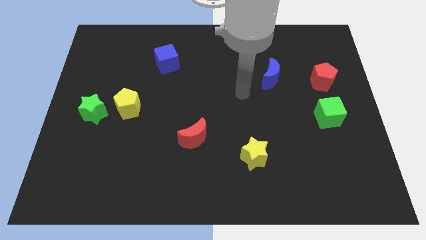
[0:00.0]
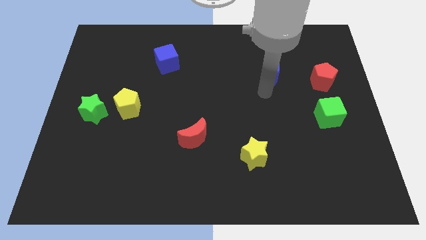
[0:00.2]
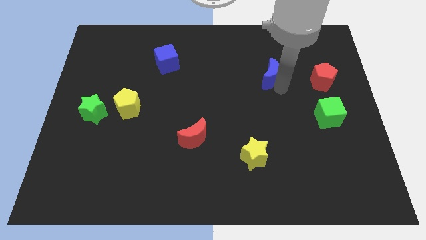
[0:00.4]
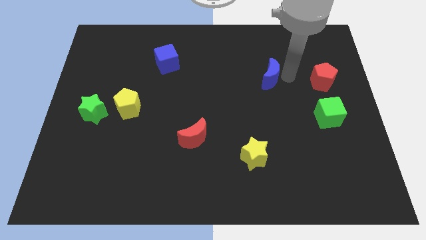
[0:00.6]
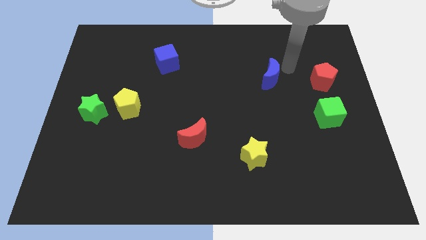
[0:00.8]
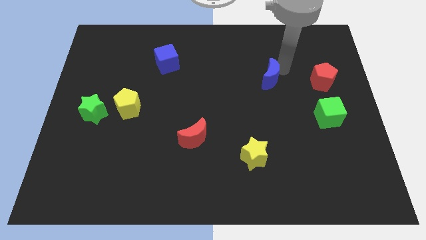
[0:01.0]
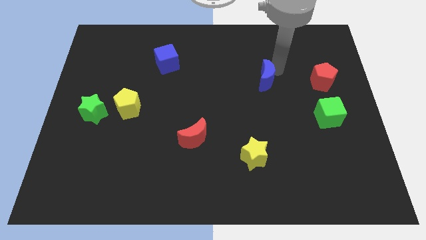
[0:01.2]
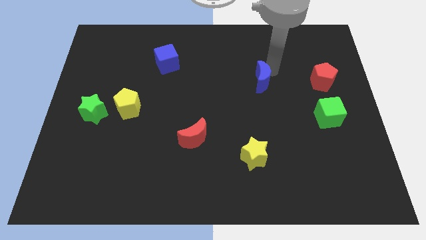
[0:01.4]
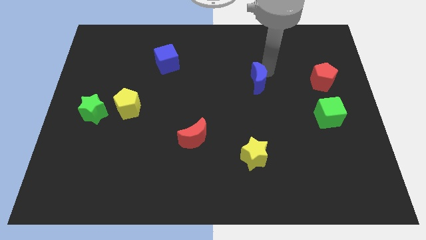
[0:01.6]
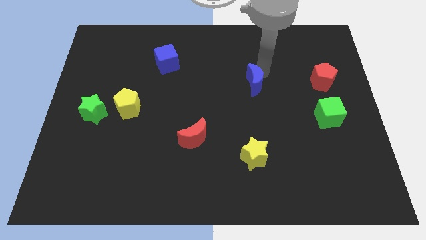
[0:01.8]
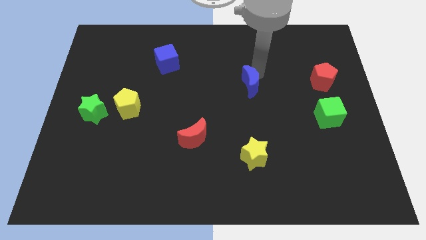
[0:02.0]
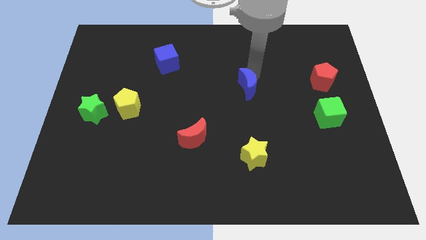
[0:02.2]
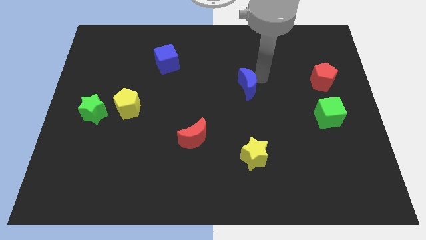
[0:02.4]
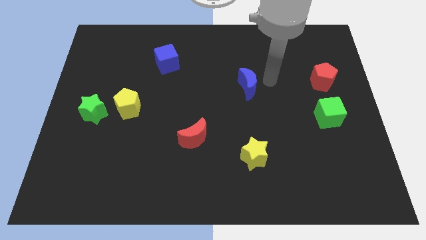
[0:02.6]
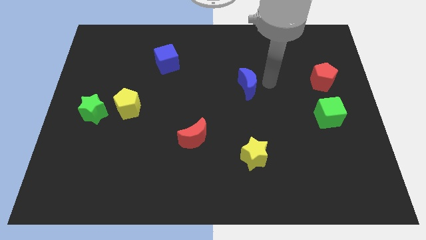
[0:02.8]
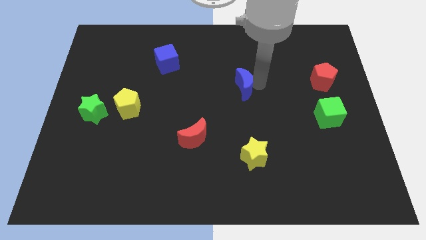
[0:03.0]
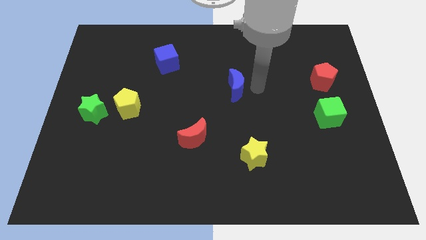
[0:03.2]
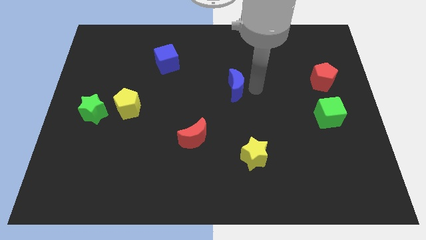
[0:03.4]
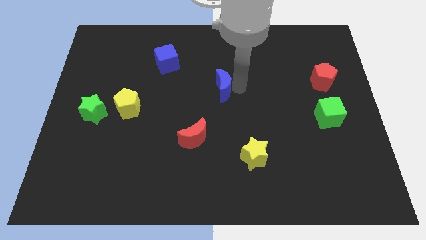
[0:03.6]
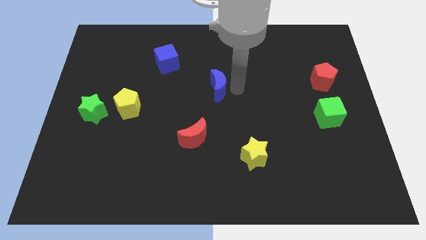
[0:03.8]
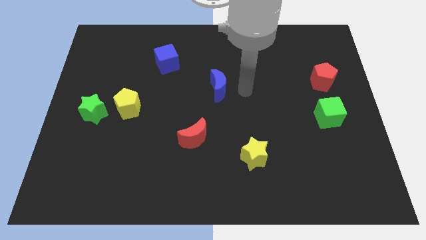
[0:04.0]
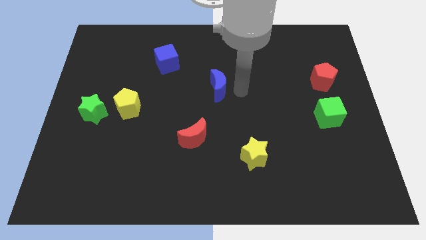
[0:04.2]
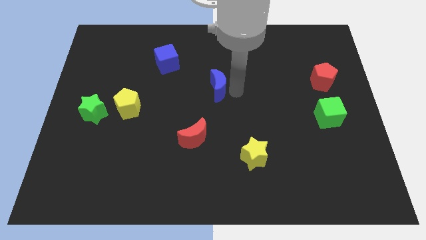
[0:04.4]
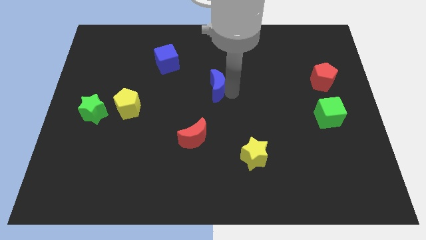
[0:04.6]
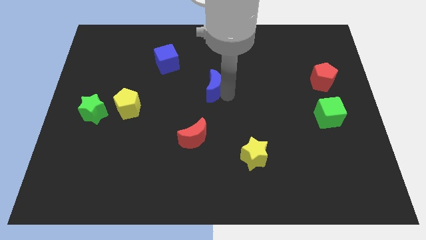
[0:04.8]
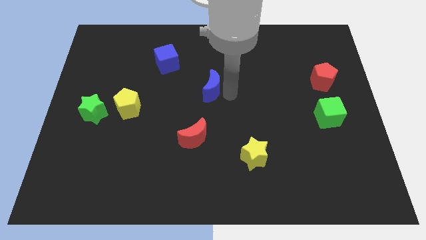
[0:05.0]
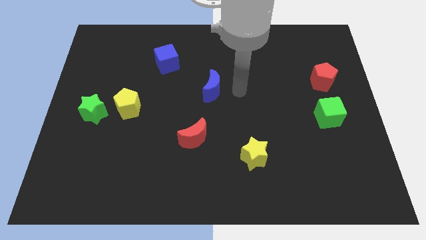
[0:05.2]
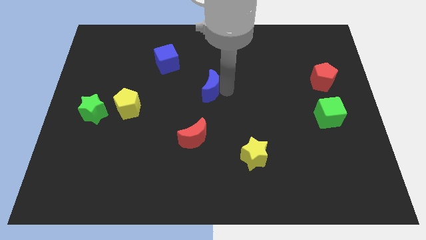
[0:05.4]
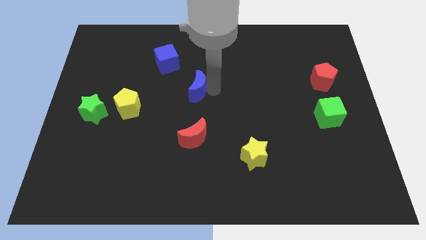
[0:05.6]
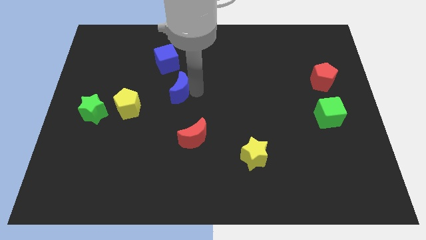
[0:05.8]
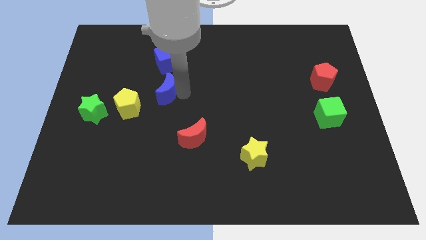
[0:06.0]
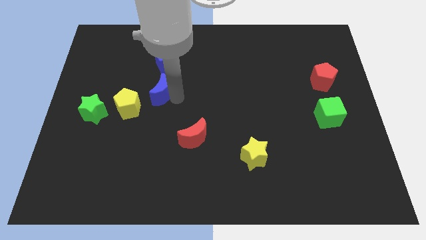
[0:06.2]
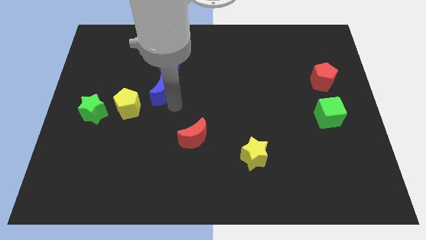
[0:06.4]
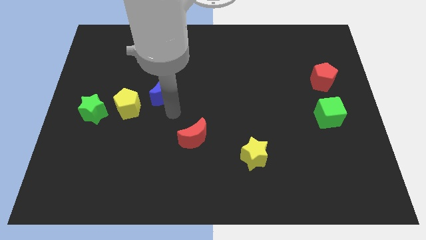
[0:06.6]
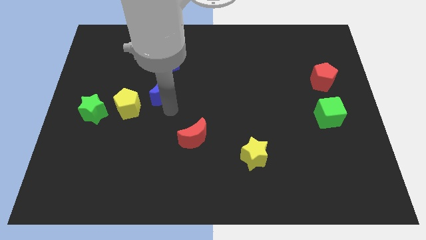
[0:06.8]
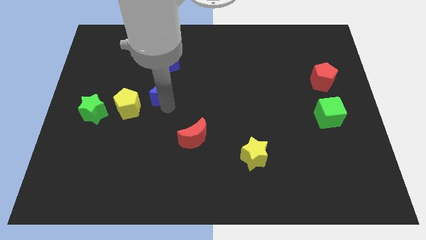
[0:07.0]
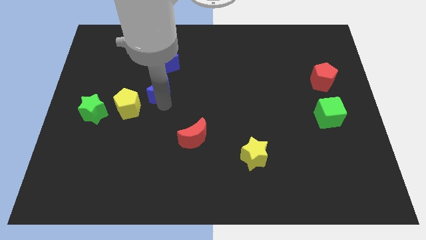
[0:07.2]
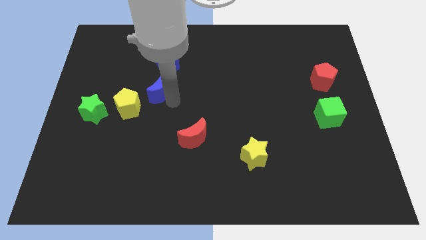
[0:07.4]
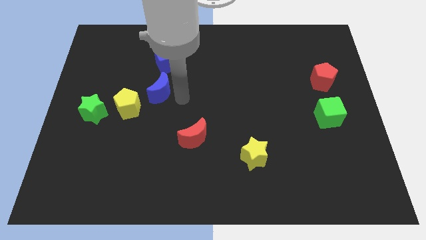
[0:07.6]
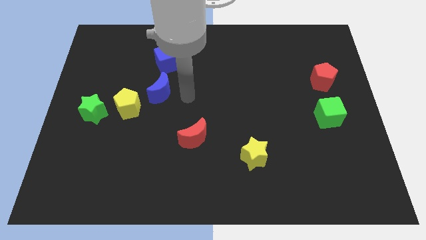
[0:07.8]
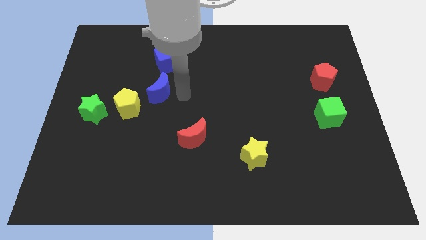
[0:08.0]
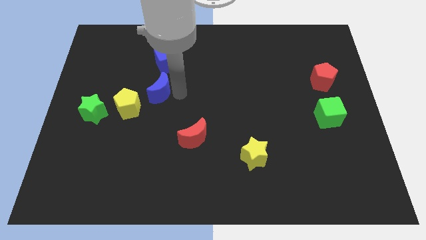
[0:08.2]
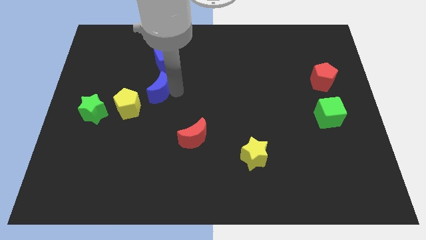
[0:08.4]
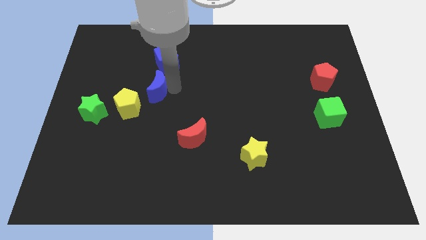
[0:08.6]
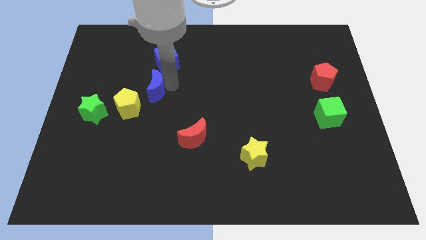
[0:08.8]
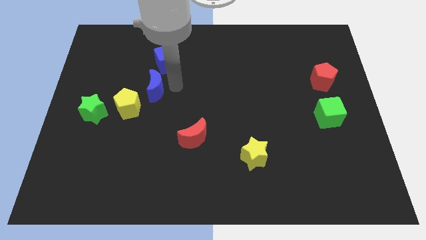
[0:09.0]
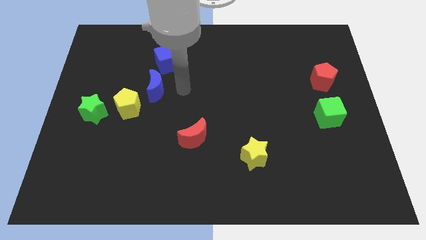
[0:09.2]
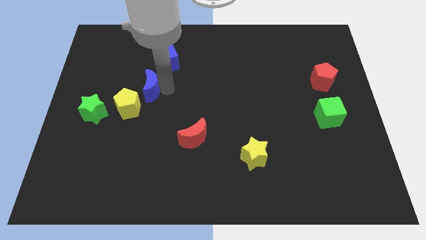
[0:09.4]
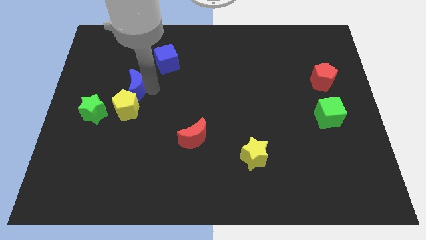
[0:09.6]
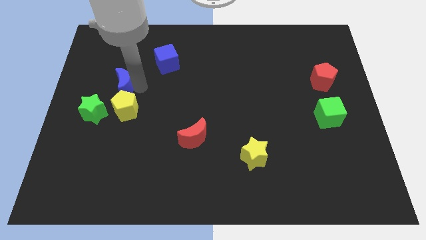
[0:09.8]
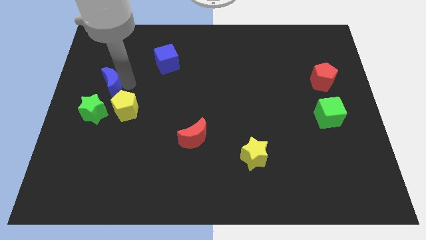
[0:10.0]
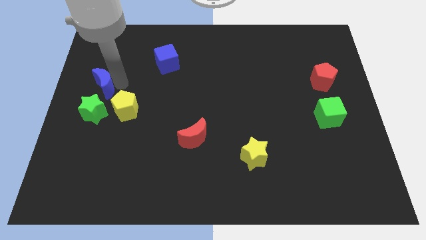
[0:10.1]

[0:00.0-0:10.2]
push the blue moon to the center left

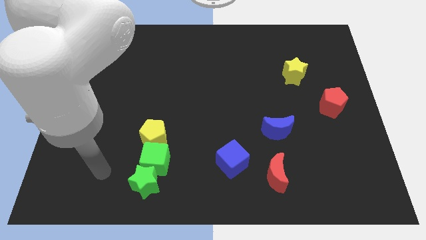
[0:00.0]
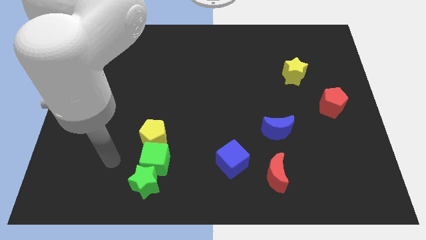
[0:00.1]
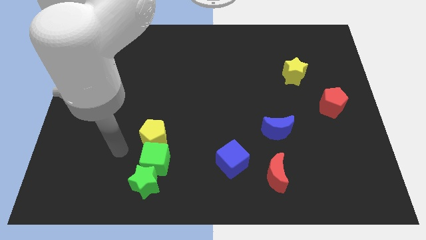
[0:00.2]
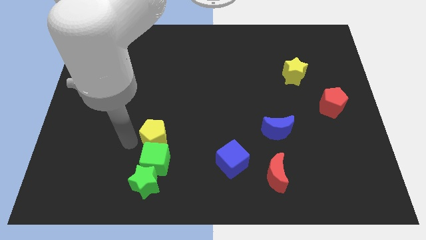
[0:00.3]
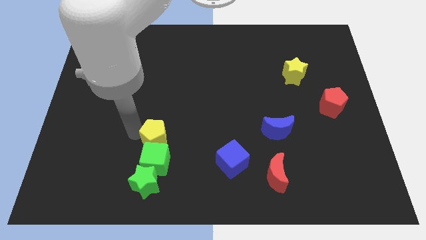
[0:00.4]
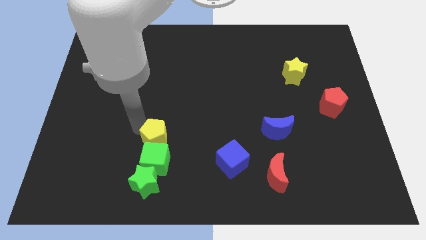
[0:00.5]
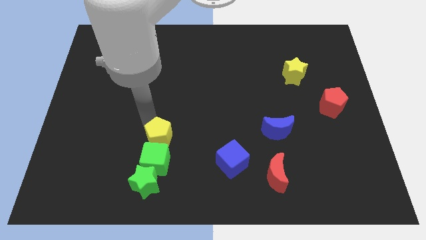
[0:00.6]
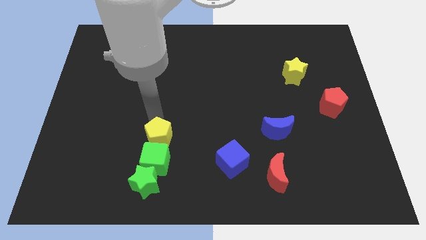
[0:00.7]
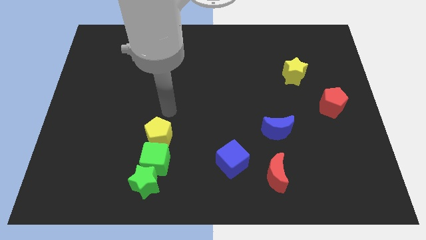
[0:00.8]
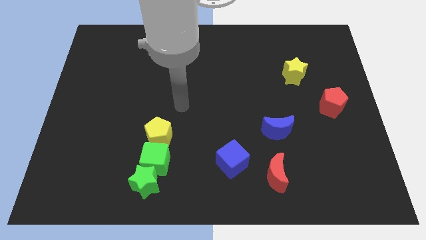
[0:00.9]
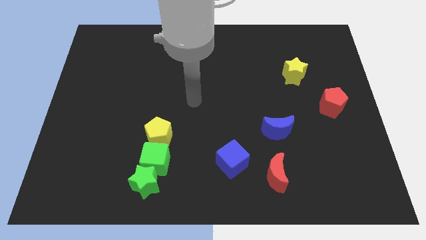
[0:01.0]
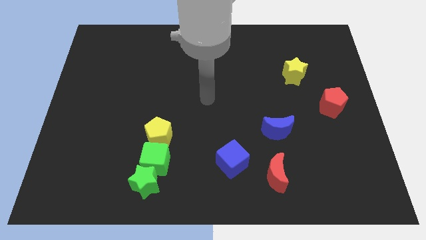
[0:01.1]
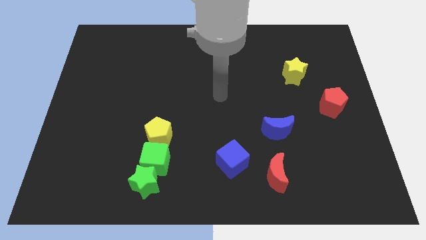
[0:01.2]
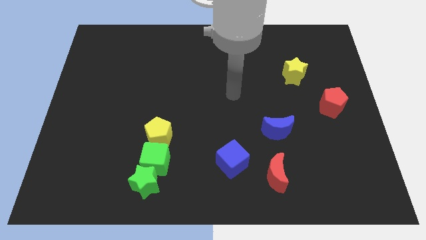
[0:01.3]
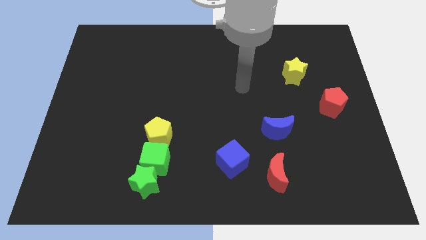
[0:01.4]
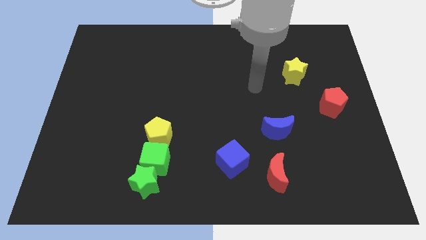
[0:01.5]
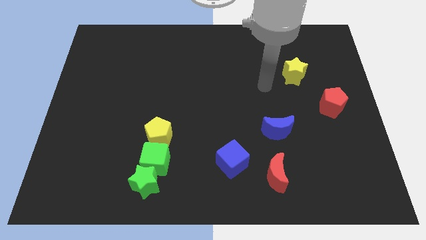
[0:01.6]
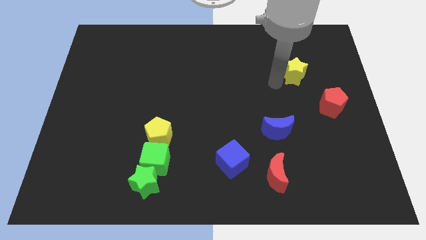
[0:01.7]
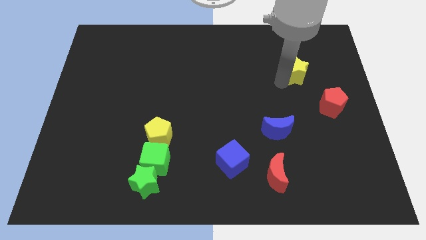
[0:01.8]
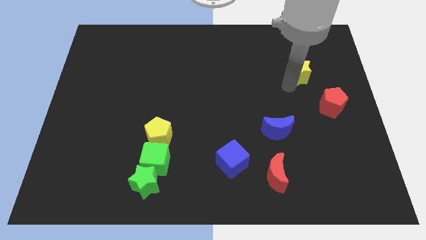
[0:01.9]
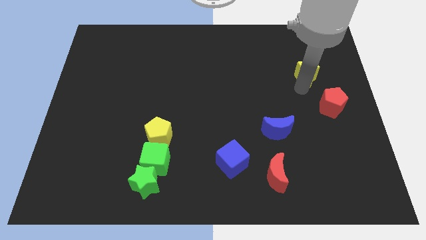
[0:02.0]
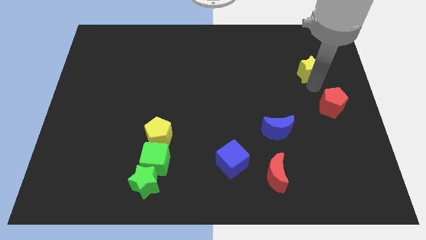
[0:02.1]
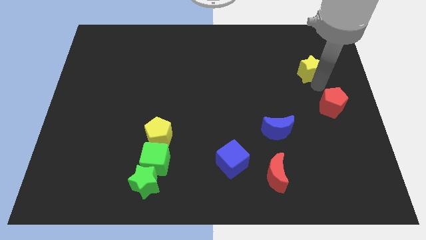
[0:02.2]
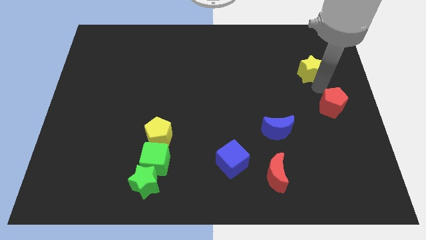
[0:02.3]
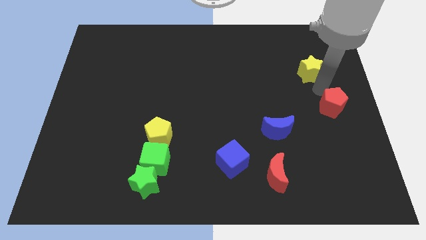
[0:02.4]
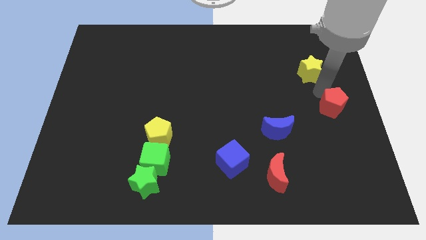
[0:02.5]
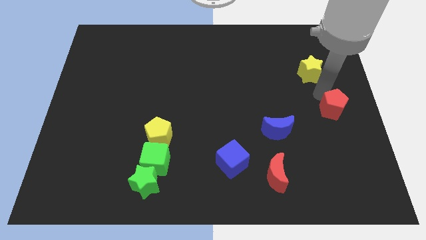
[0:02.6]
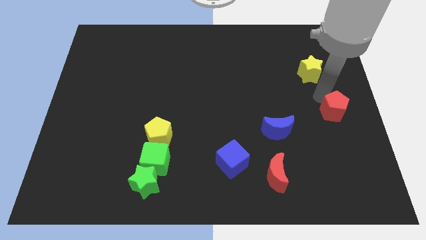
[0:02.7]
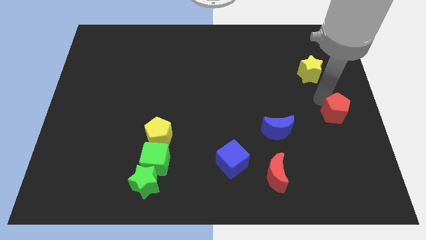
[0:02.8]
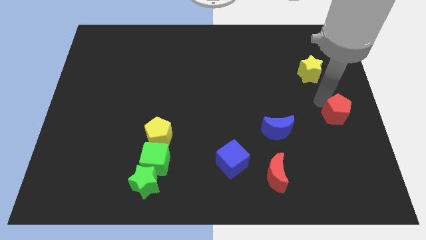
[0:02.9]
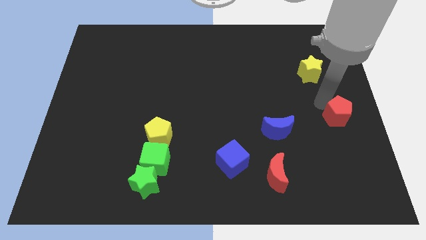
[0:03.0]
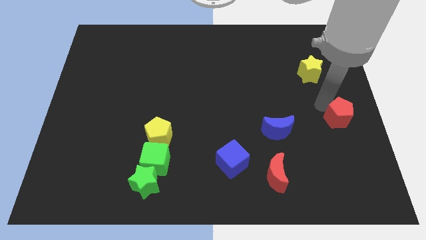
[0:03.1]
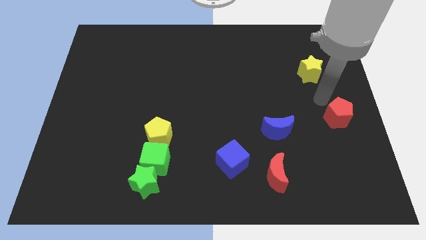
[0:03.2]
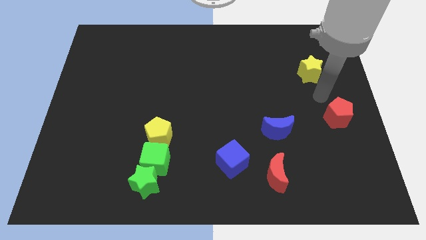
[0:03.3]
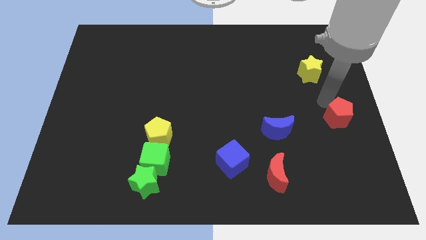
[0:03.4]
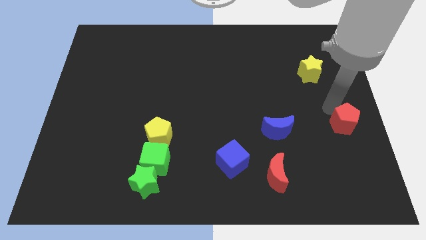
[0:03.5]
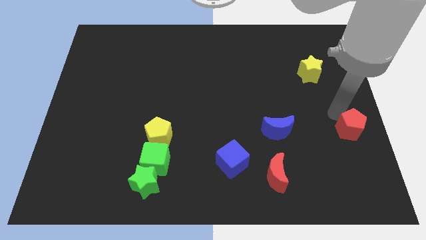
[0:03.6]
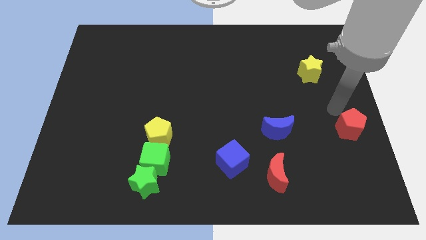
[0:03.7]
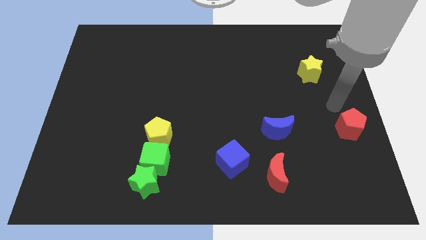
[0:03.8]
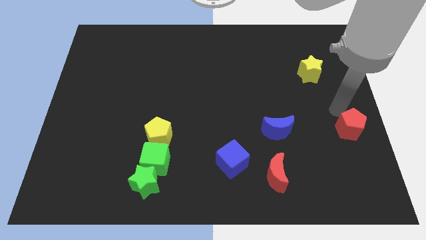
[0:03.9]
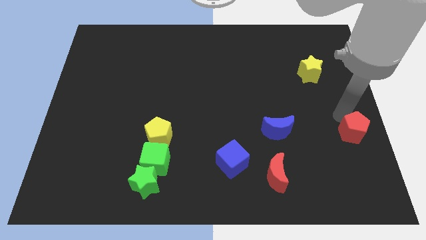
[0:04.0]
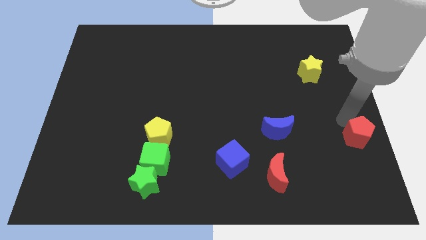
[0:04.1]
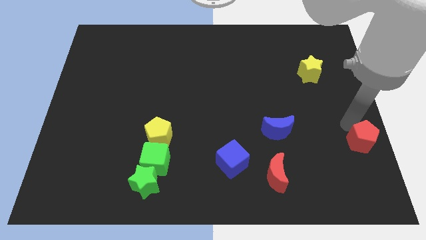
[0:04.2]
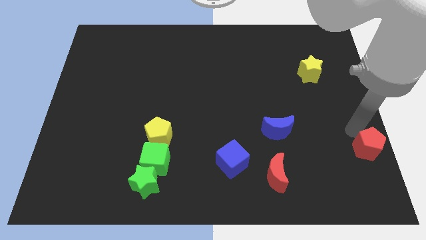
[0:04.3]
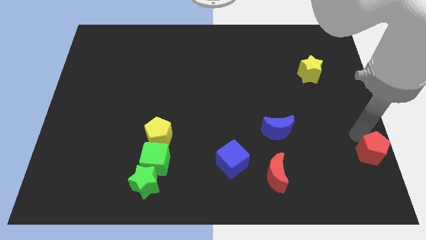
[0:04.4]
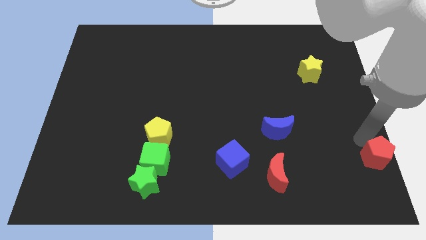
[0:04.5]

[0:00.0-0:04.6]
put the red pentagon to the bottom right of the board
